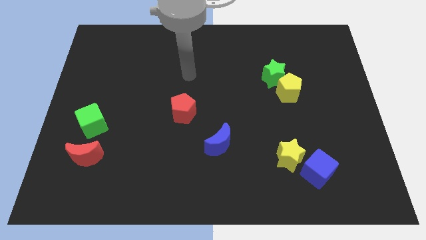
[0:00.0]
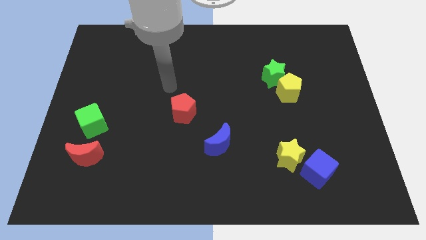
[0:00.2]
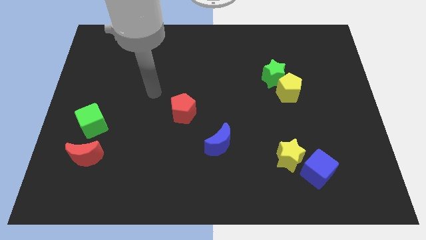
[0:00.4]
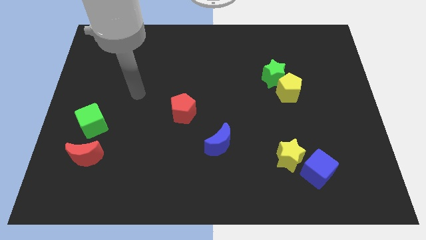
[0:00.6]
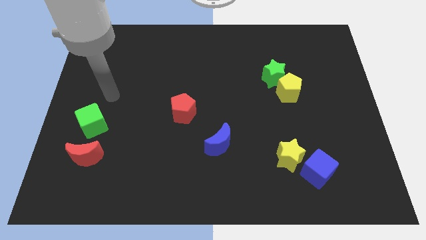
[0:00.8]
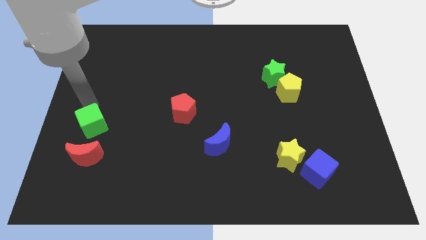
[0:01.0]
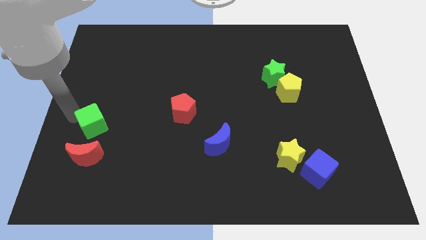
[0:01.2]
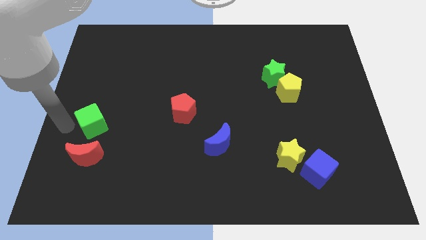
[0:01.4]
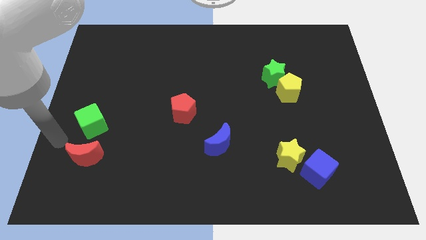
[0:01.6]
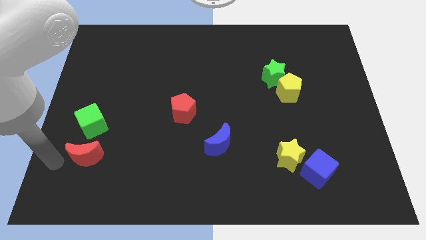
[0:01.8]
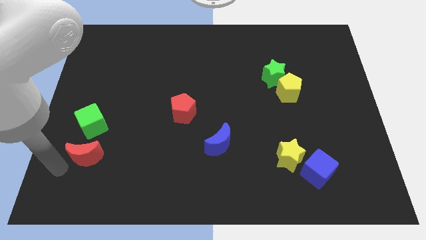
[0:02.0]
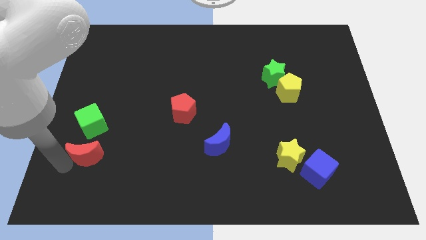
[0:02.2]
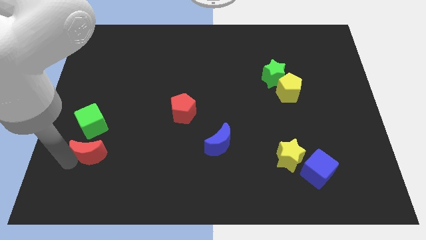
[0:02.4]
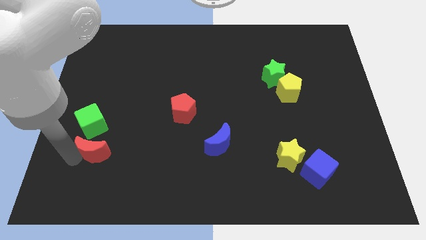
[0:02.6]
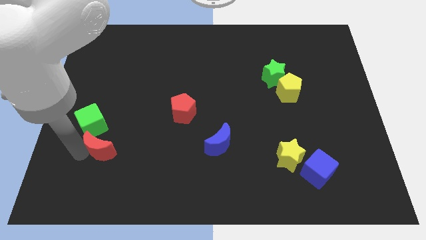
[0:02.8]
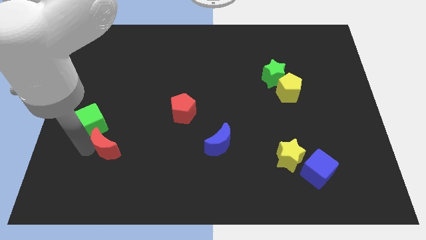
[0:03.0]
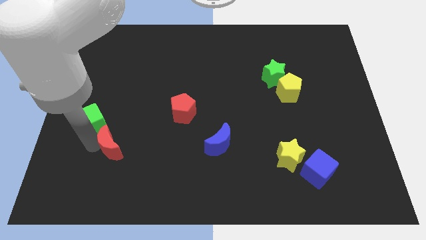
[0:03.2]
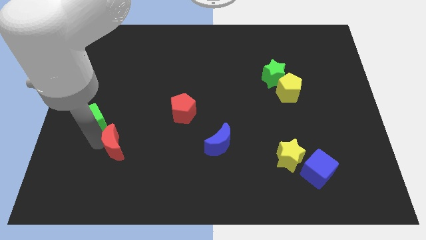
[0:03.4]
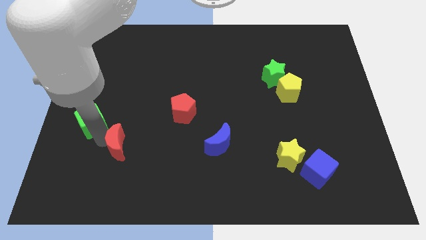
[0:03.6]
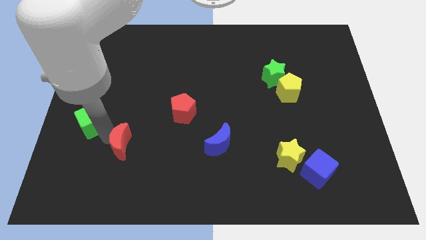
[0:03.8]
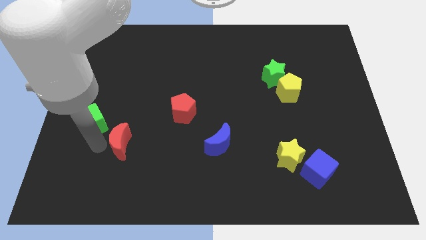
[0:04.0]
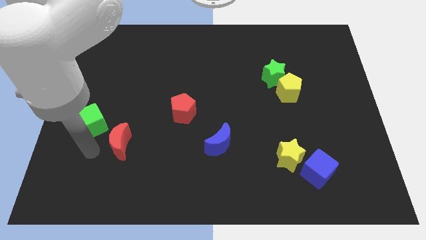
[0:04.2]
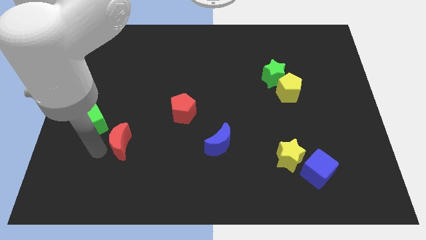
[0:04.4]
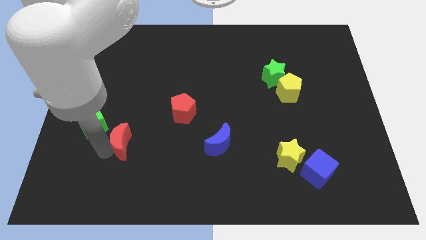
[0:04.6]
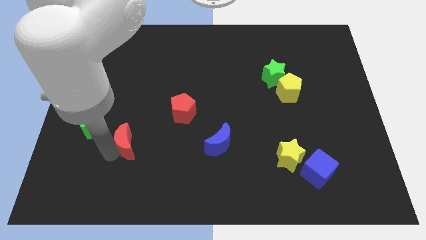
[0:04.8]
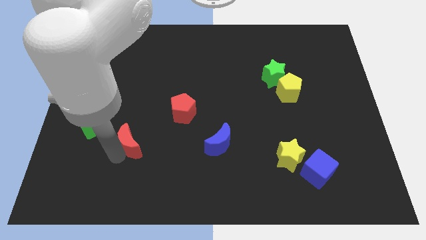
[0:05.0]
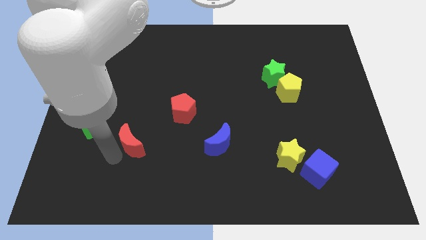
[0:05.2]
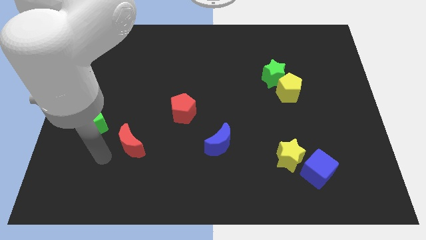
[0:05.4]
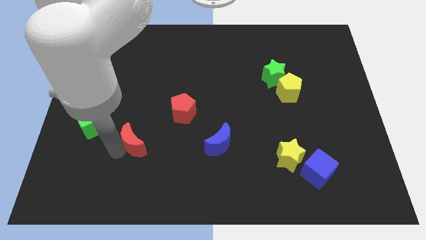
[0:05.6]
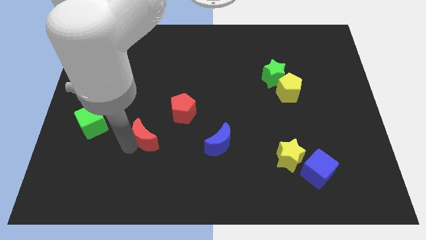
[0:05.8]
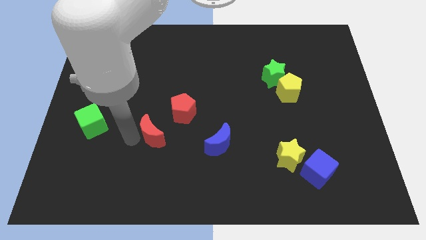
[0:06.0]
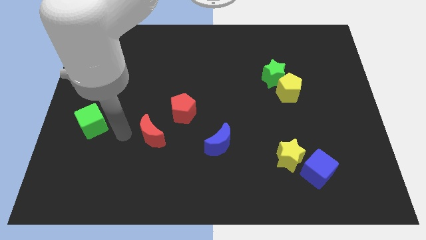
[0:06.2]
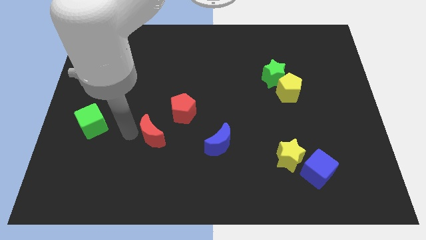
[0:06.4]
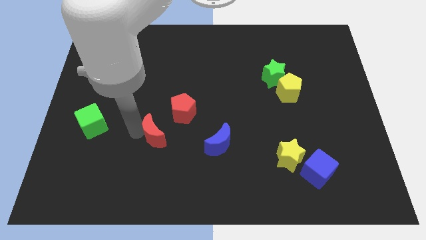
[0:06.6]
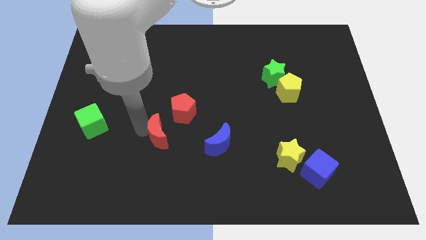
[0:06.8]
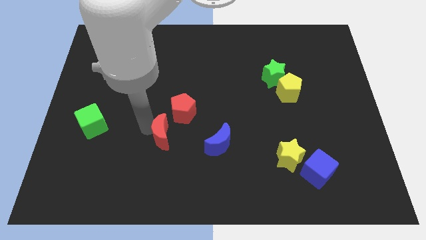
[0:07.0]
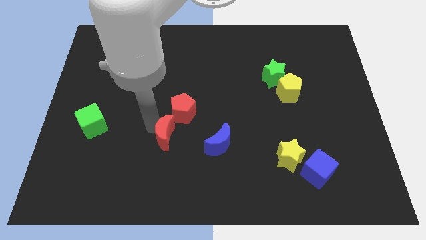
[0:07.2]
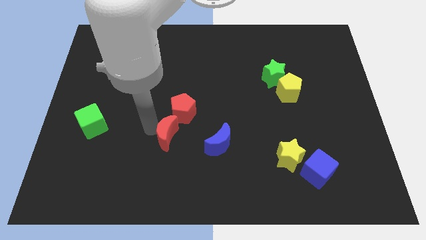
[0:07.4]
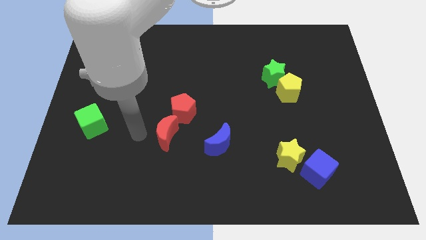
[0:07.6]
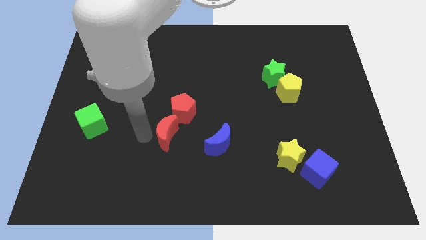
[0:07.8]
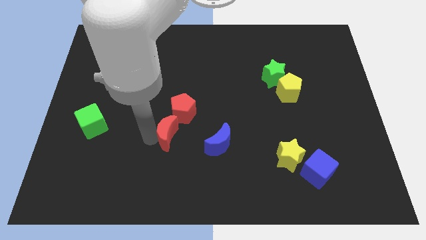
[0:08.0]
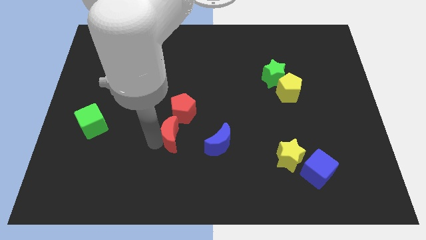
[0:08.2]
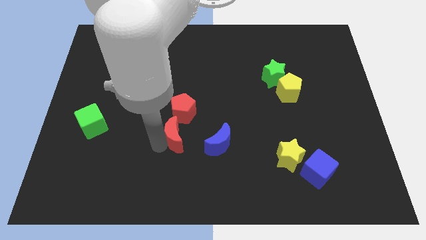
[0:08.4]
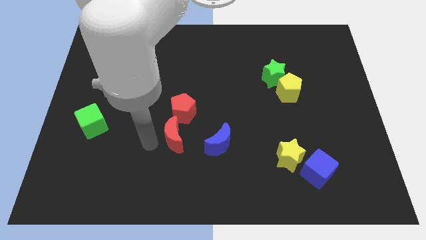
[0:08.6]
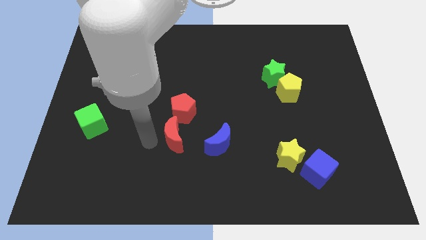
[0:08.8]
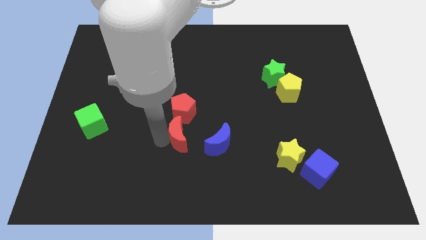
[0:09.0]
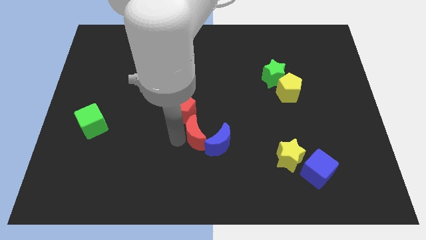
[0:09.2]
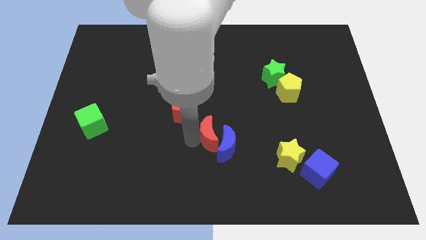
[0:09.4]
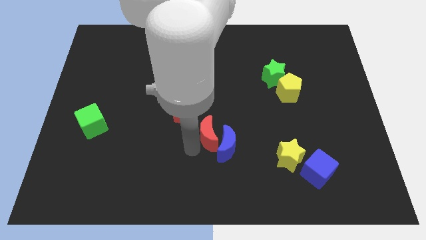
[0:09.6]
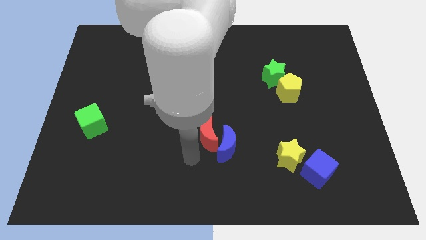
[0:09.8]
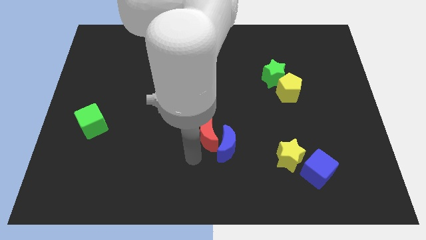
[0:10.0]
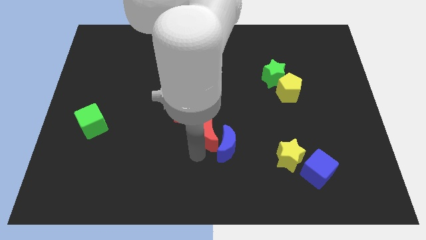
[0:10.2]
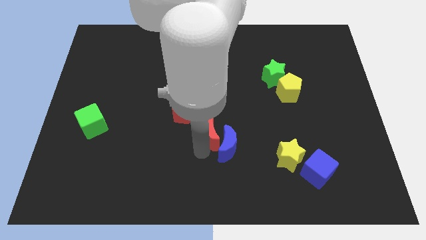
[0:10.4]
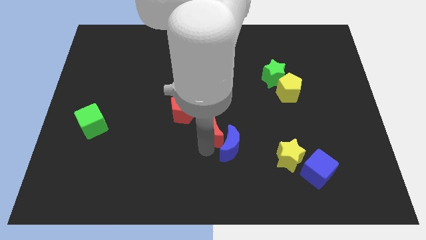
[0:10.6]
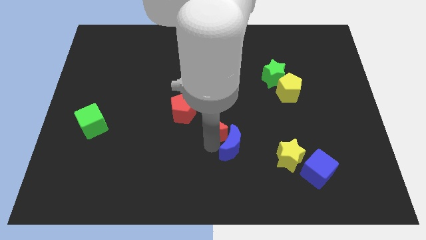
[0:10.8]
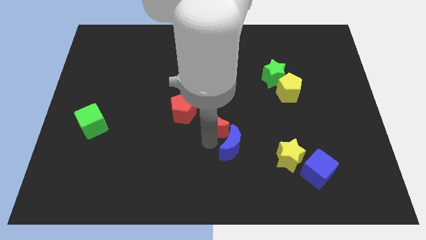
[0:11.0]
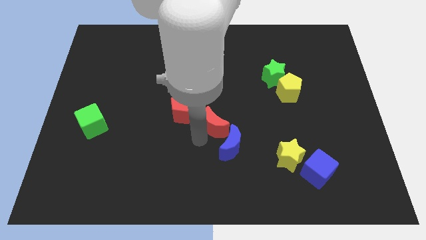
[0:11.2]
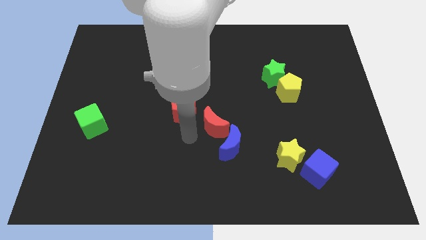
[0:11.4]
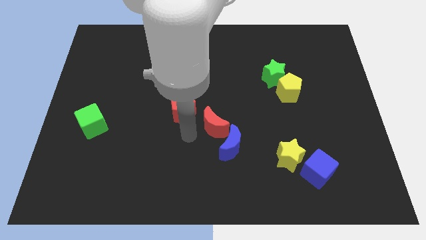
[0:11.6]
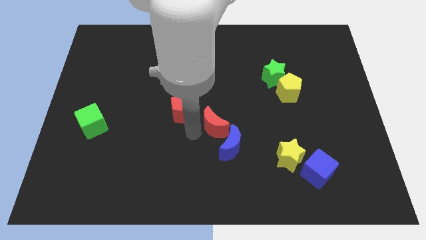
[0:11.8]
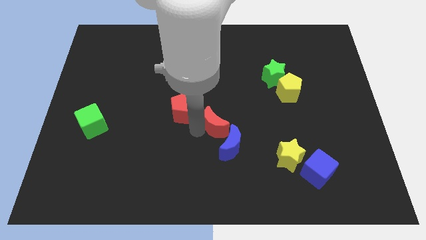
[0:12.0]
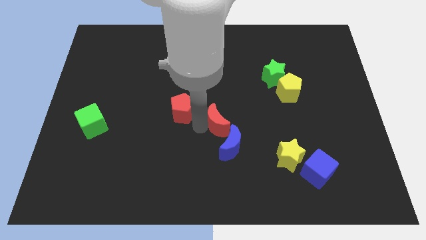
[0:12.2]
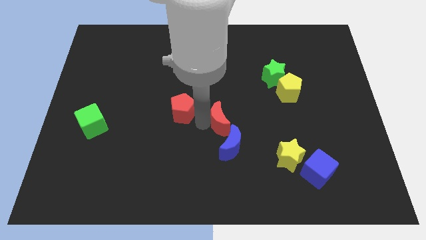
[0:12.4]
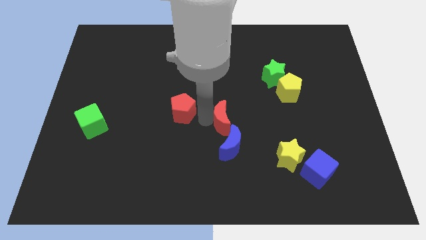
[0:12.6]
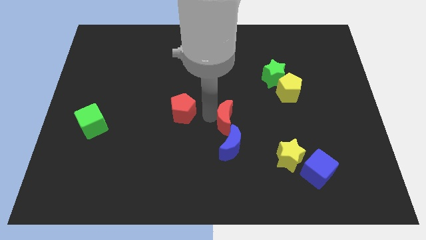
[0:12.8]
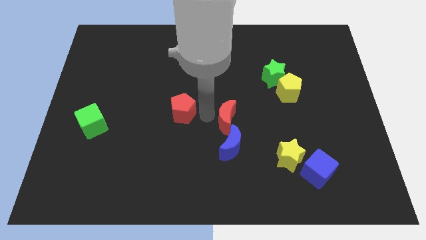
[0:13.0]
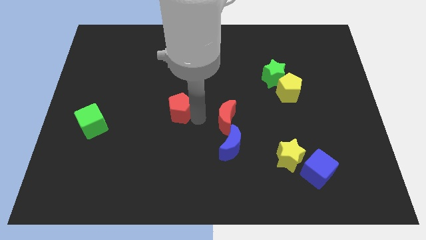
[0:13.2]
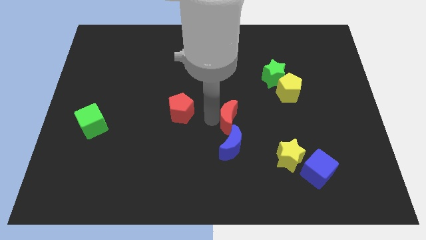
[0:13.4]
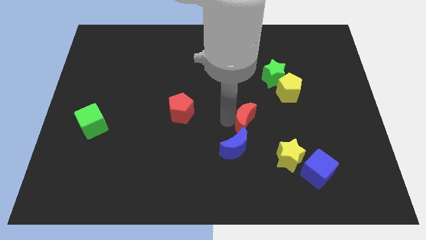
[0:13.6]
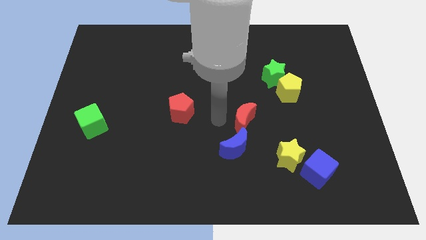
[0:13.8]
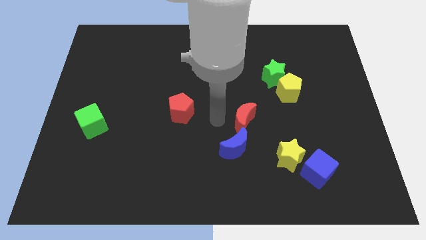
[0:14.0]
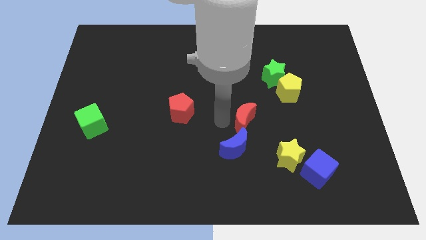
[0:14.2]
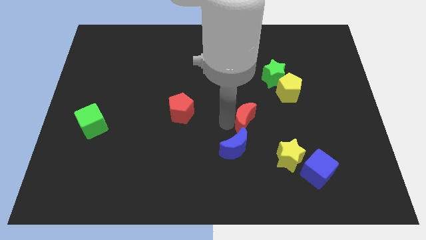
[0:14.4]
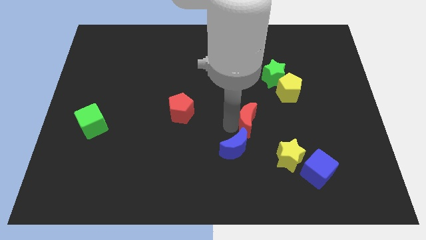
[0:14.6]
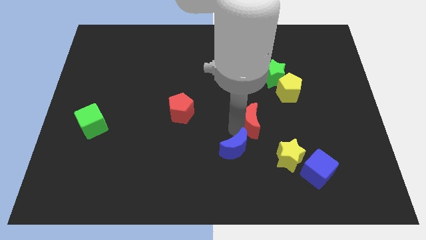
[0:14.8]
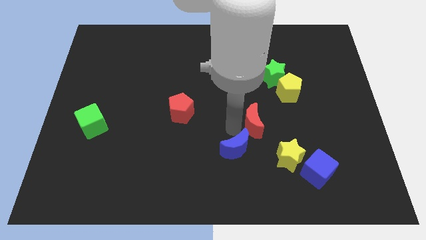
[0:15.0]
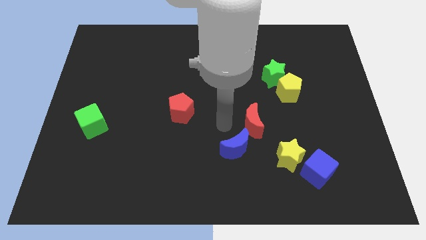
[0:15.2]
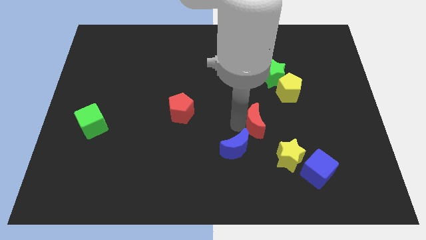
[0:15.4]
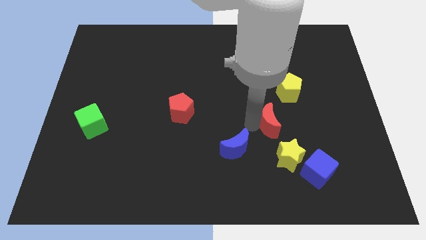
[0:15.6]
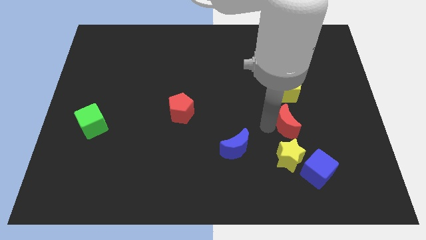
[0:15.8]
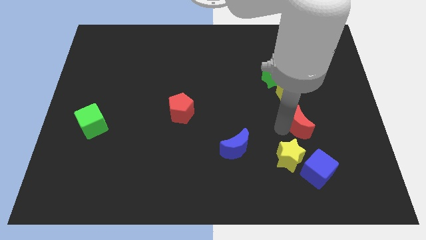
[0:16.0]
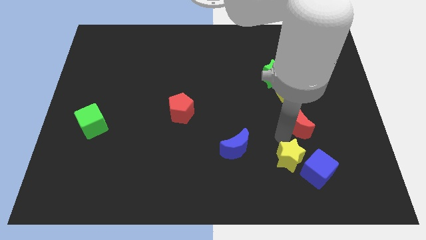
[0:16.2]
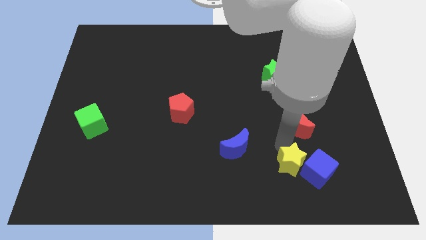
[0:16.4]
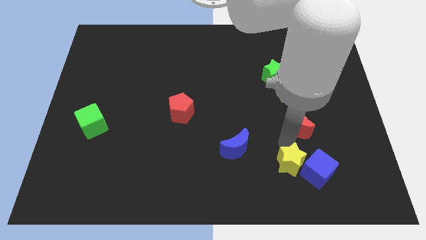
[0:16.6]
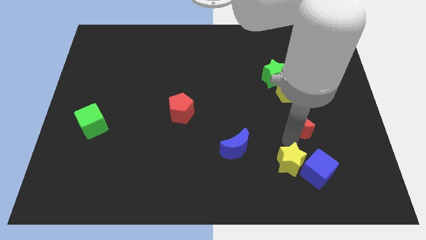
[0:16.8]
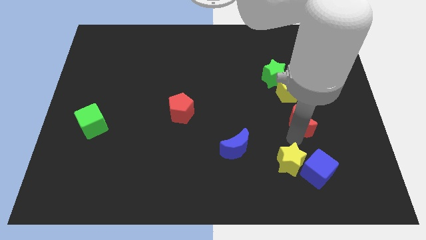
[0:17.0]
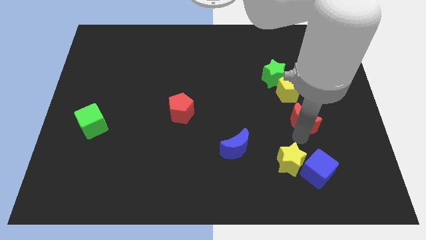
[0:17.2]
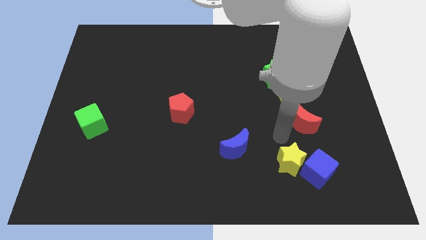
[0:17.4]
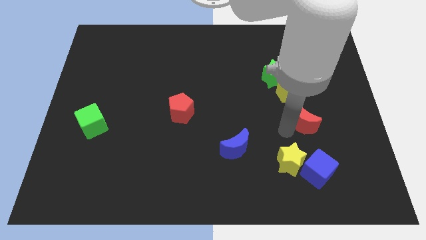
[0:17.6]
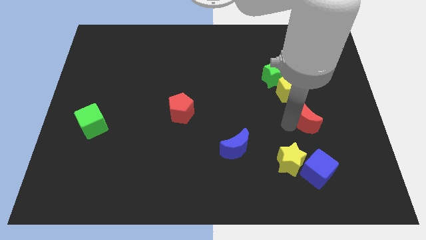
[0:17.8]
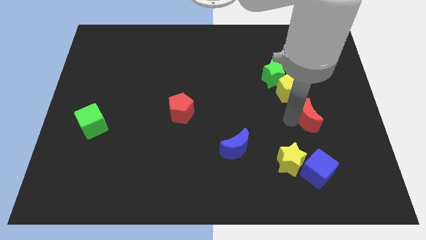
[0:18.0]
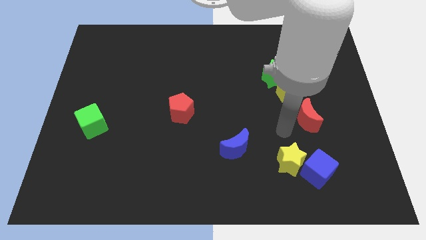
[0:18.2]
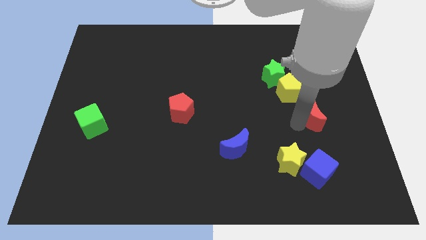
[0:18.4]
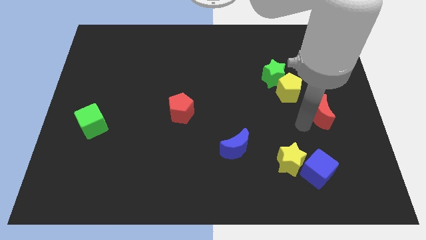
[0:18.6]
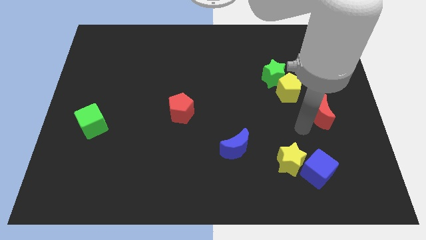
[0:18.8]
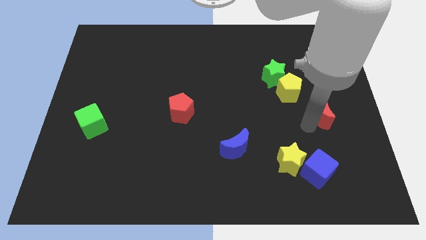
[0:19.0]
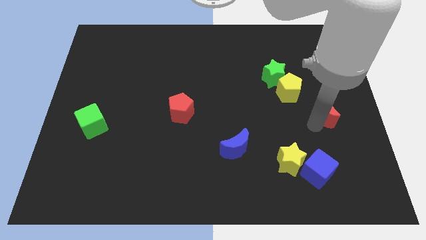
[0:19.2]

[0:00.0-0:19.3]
put the red moon to the right side of the board
